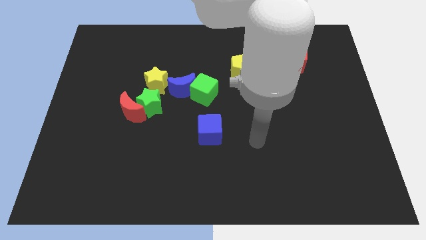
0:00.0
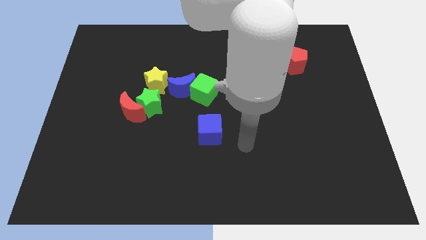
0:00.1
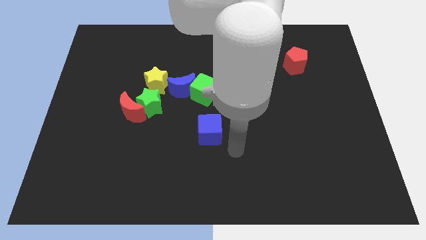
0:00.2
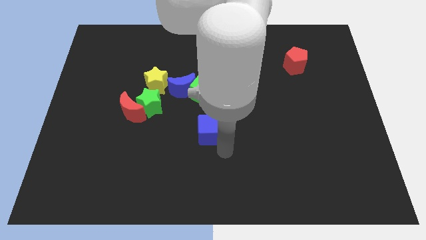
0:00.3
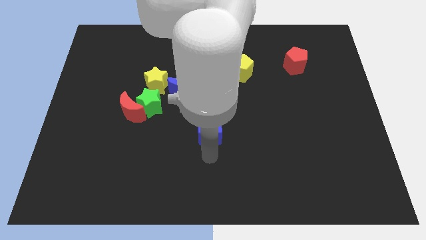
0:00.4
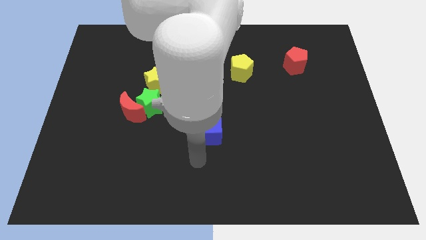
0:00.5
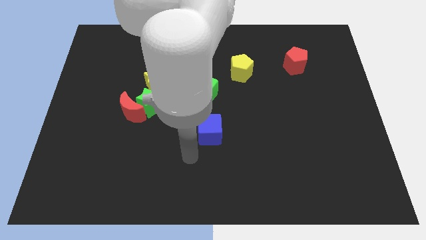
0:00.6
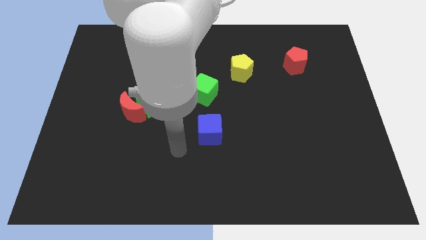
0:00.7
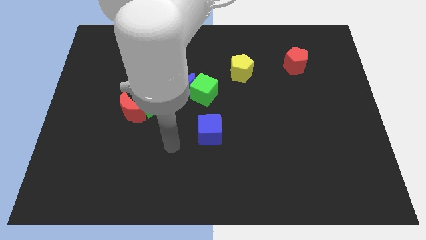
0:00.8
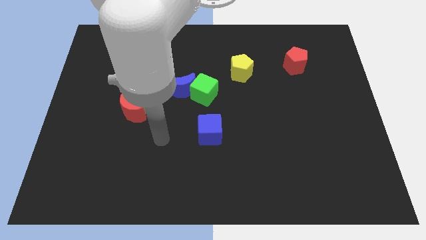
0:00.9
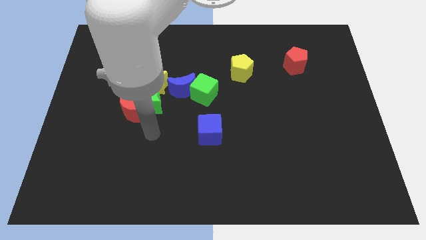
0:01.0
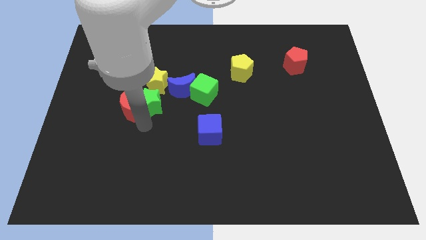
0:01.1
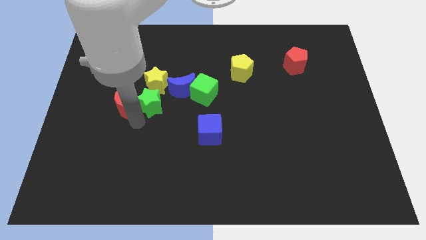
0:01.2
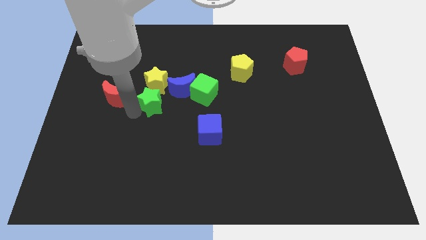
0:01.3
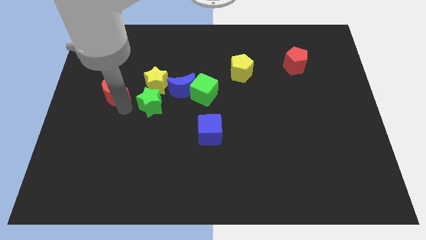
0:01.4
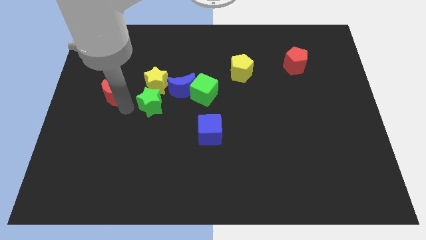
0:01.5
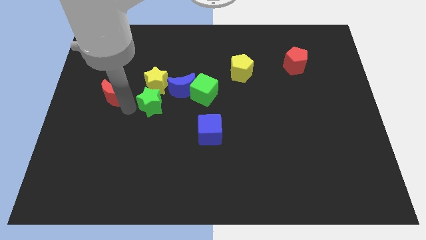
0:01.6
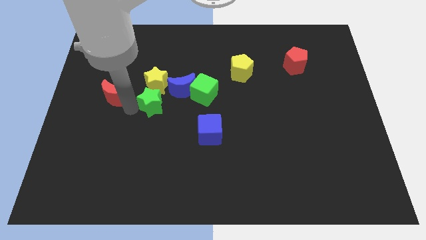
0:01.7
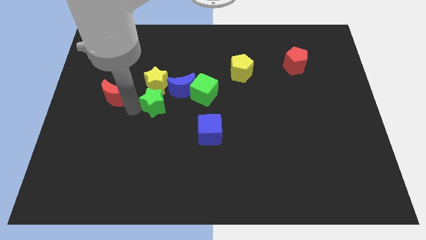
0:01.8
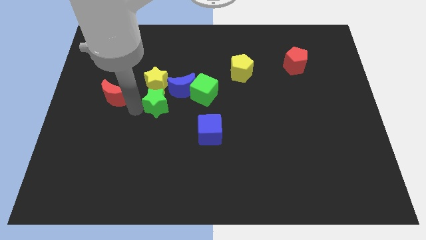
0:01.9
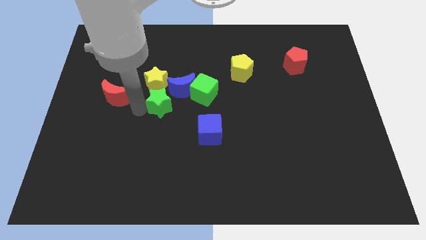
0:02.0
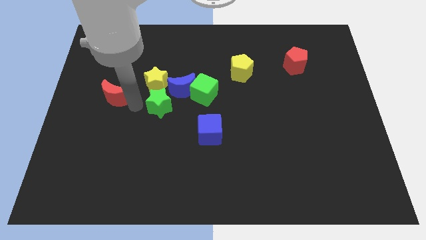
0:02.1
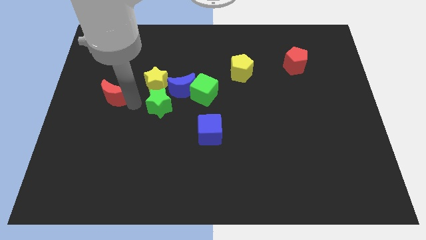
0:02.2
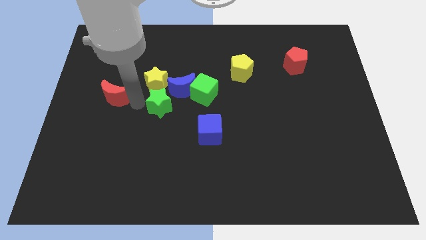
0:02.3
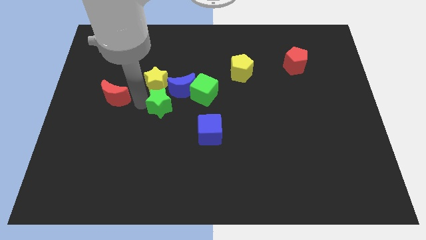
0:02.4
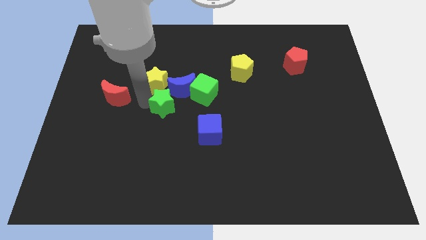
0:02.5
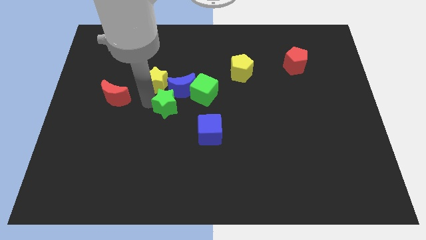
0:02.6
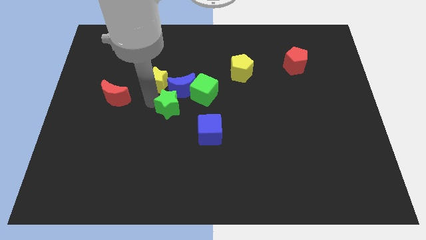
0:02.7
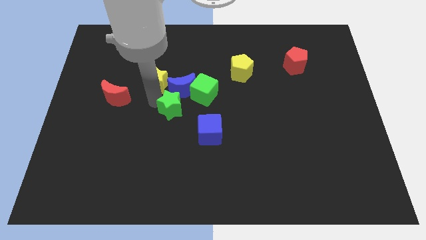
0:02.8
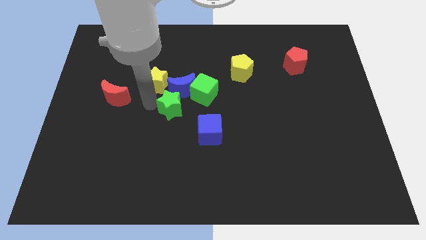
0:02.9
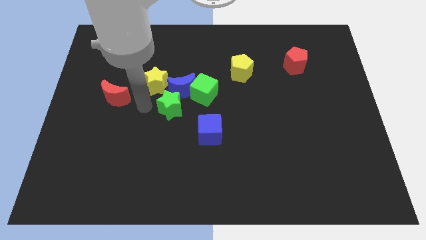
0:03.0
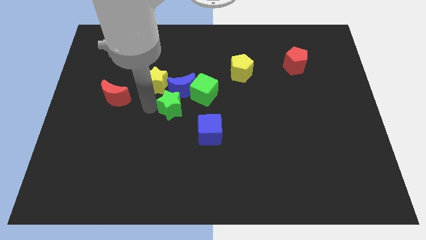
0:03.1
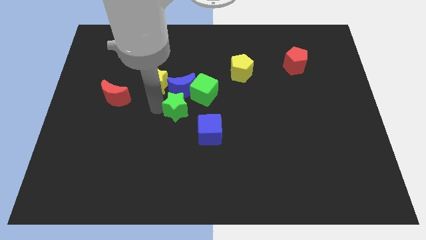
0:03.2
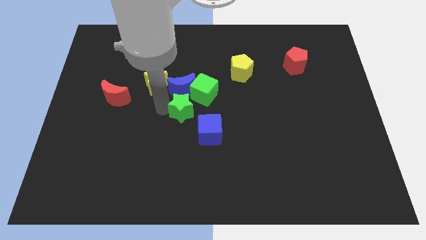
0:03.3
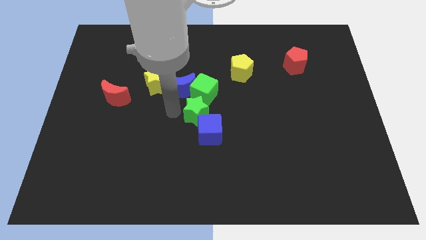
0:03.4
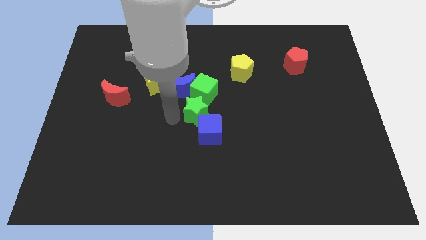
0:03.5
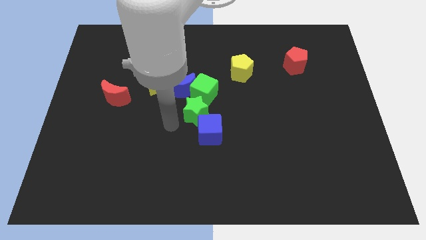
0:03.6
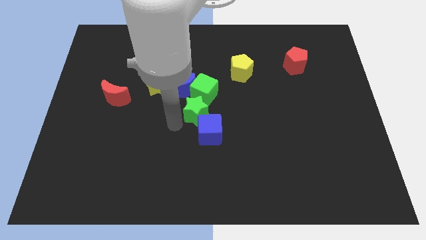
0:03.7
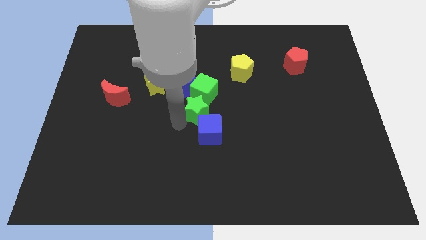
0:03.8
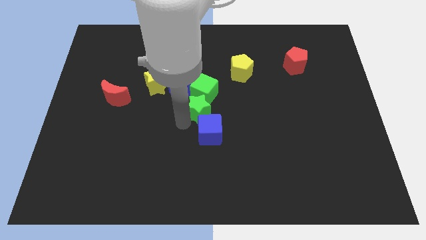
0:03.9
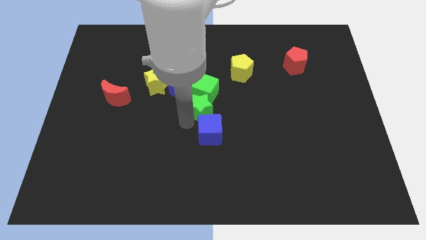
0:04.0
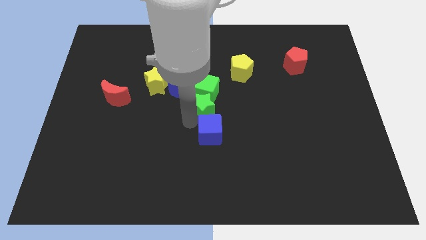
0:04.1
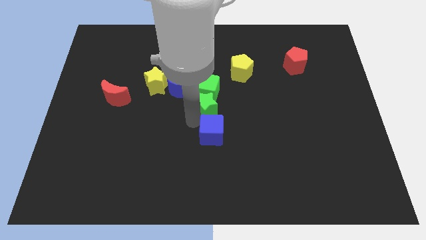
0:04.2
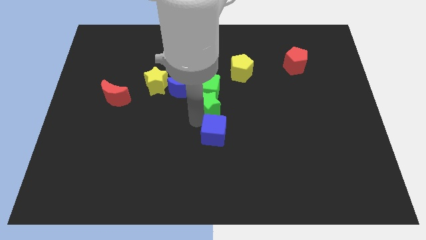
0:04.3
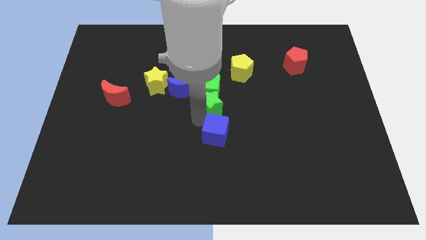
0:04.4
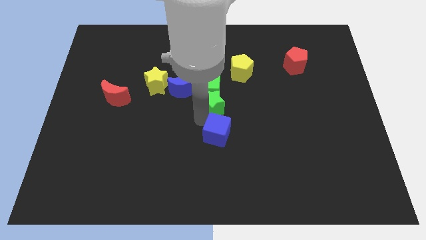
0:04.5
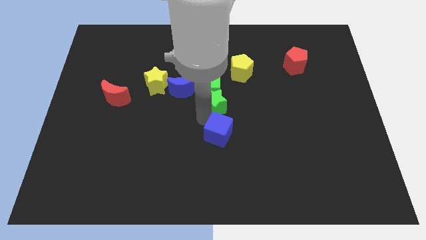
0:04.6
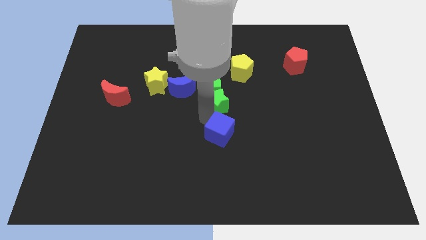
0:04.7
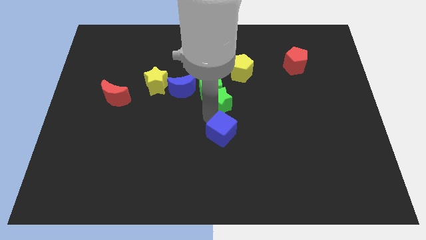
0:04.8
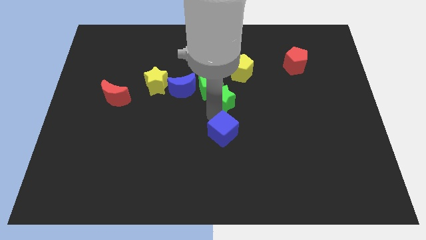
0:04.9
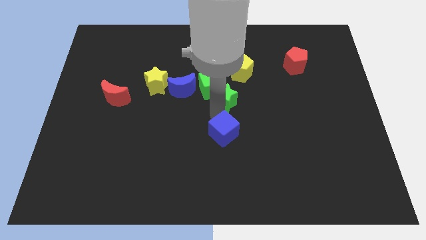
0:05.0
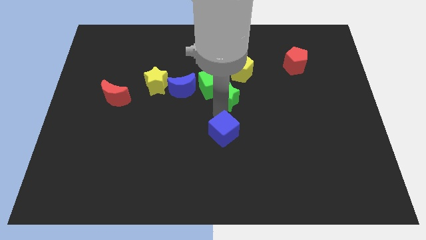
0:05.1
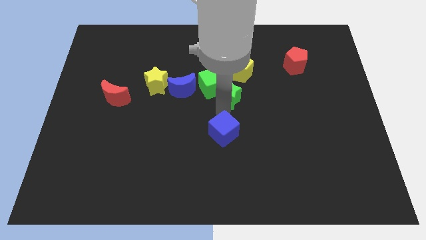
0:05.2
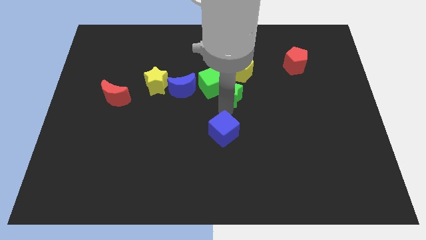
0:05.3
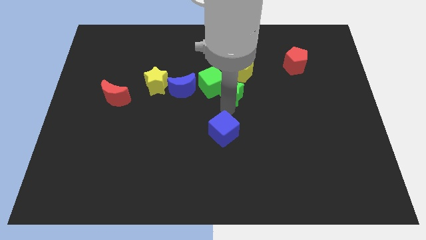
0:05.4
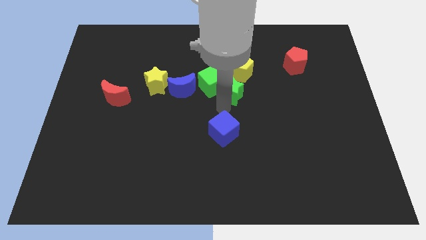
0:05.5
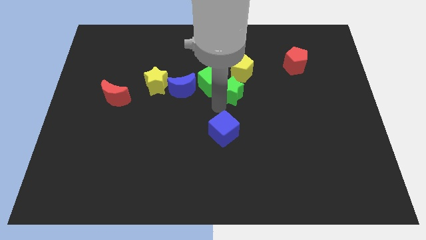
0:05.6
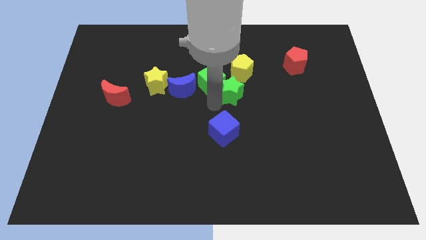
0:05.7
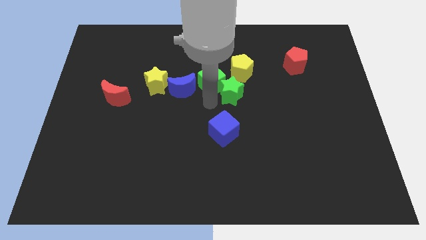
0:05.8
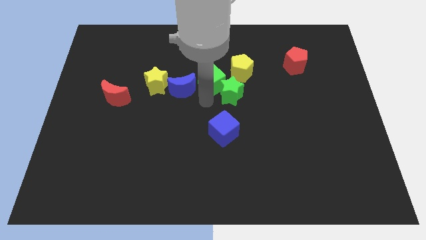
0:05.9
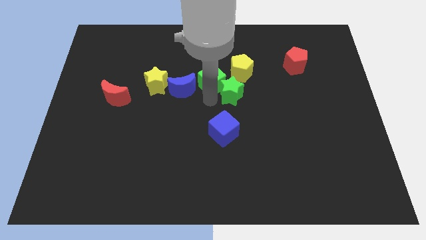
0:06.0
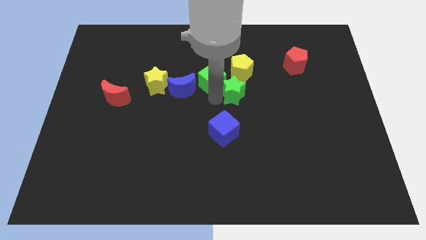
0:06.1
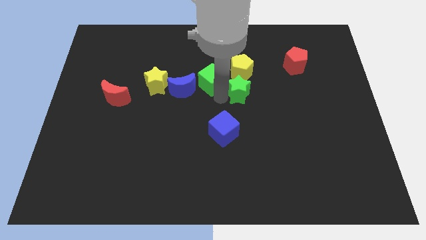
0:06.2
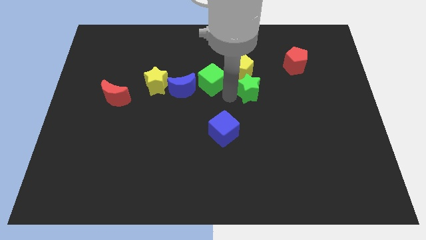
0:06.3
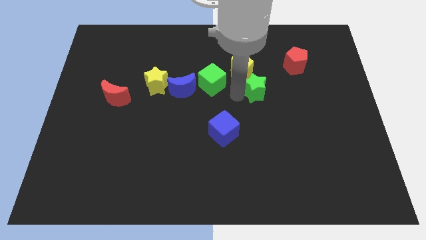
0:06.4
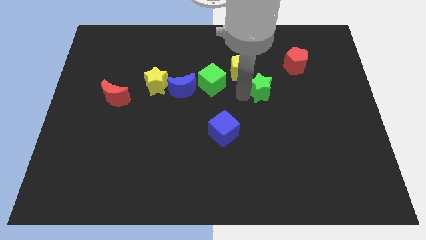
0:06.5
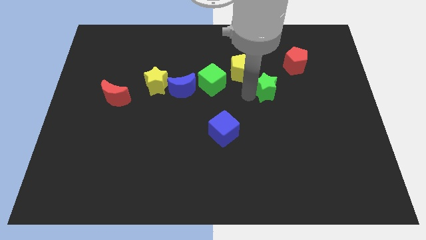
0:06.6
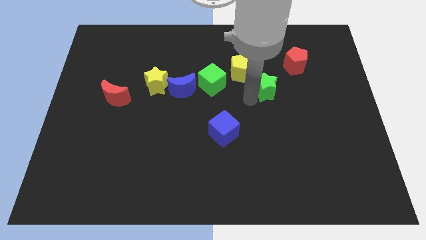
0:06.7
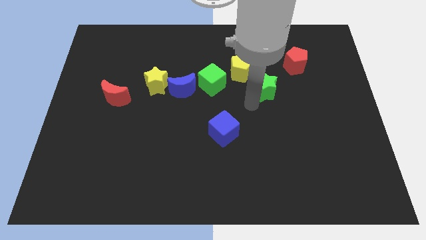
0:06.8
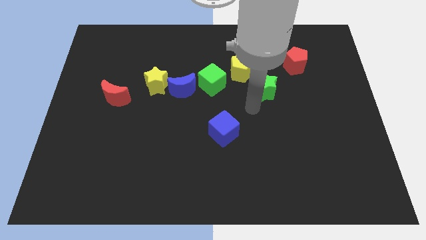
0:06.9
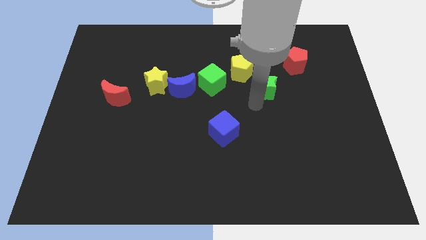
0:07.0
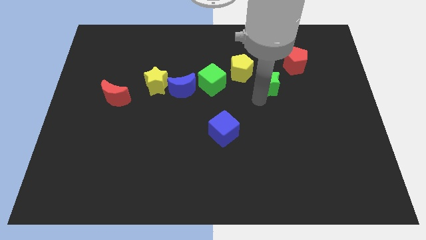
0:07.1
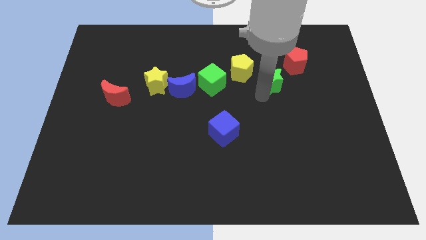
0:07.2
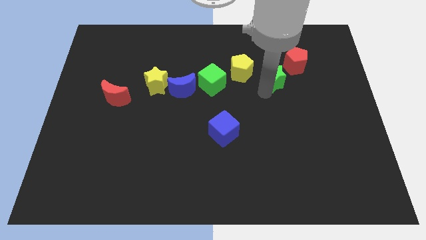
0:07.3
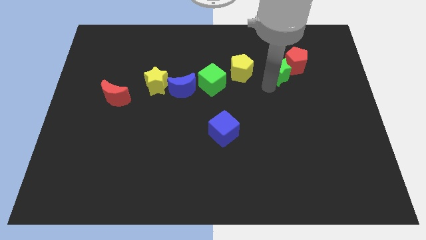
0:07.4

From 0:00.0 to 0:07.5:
put the green star towards the red pentagon
